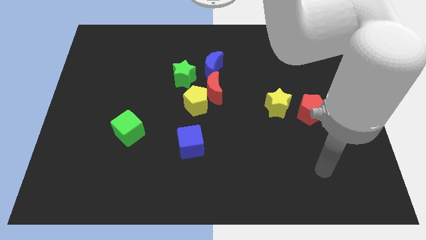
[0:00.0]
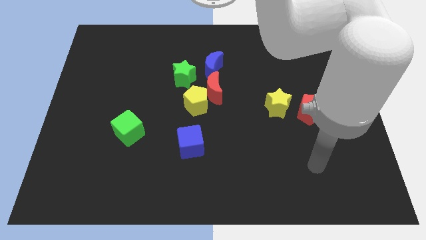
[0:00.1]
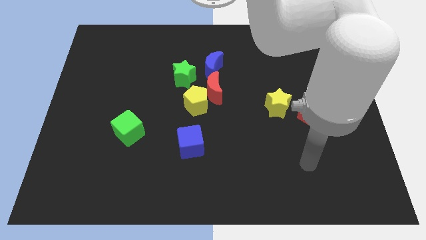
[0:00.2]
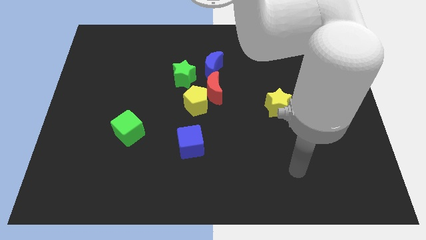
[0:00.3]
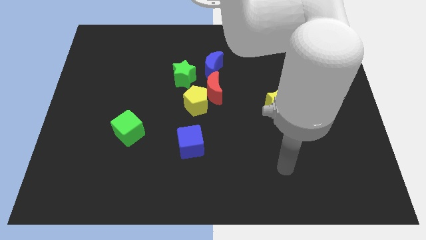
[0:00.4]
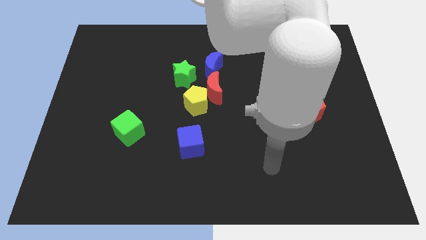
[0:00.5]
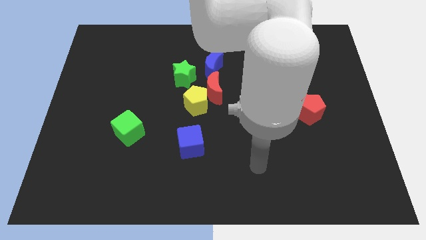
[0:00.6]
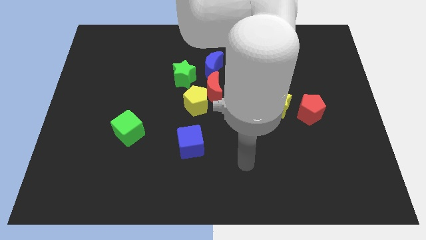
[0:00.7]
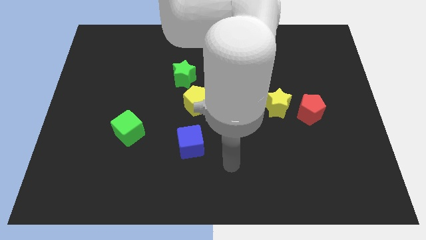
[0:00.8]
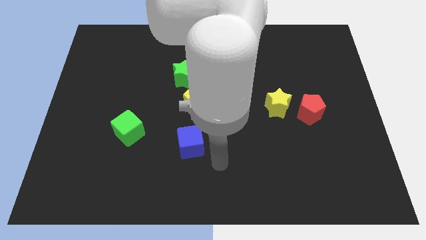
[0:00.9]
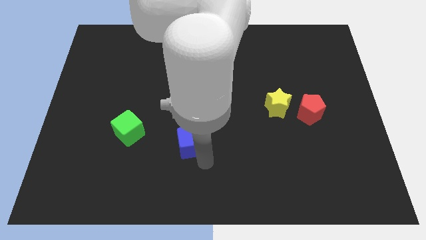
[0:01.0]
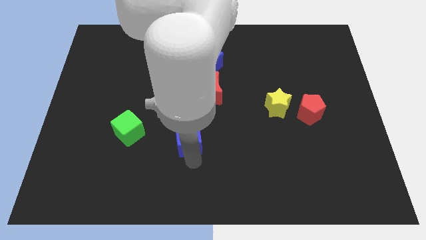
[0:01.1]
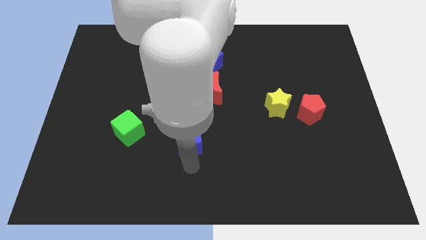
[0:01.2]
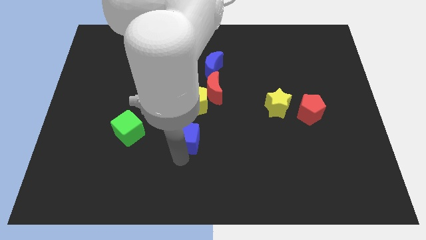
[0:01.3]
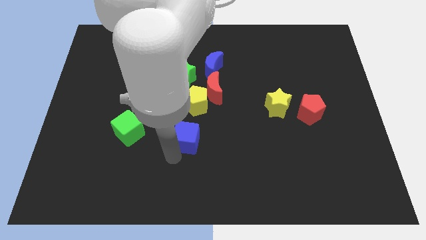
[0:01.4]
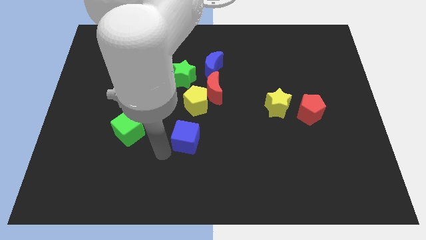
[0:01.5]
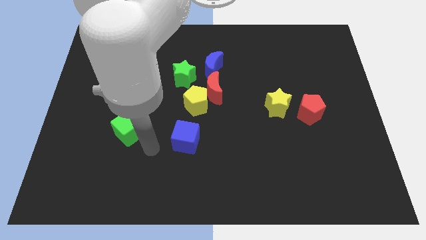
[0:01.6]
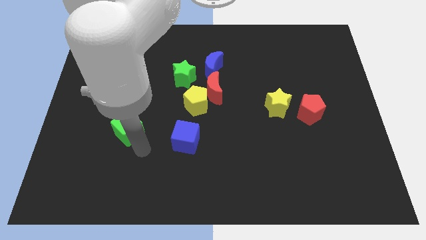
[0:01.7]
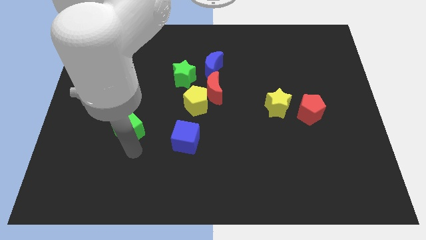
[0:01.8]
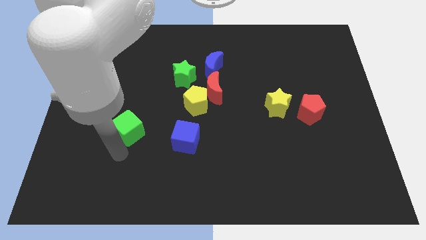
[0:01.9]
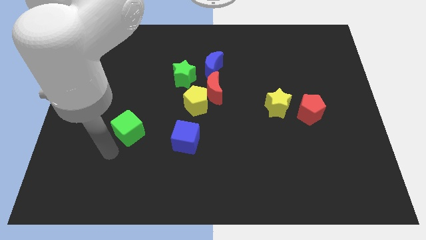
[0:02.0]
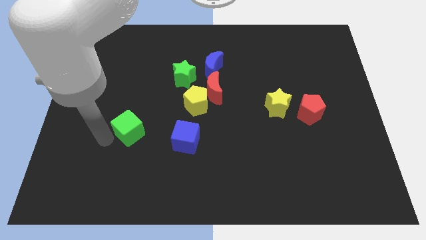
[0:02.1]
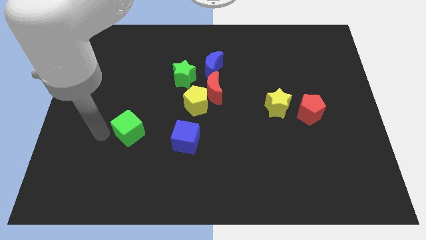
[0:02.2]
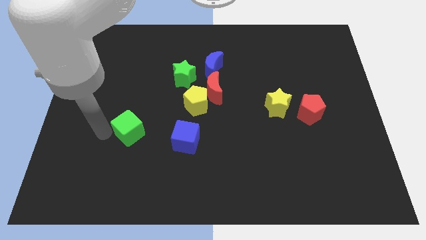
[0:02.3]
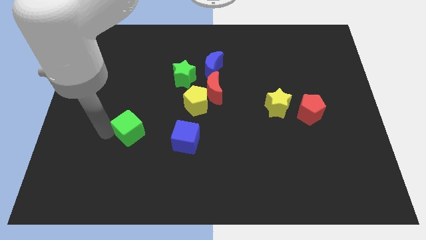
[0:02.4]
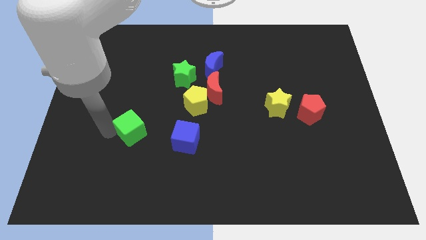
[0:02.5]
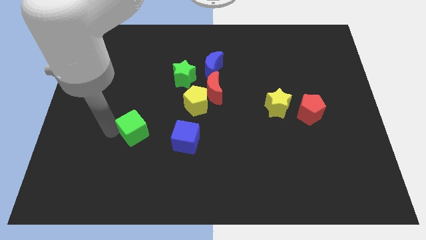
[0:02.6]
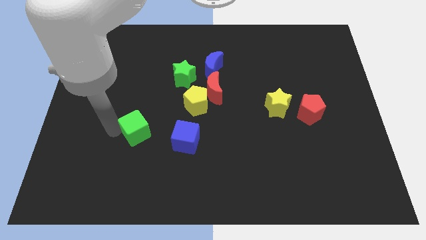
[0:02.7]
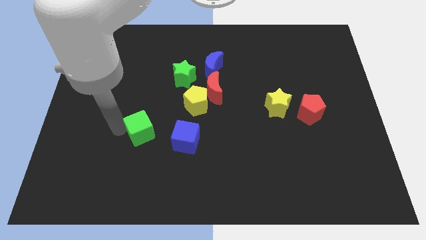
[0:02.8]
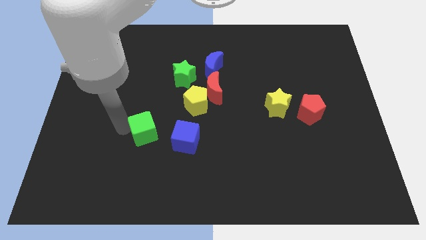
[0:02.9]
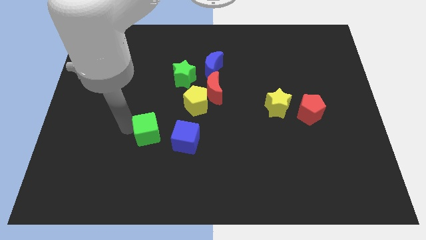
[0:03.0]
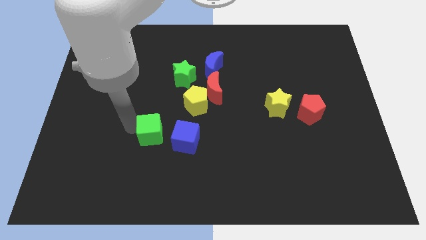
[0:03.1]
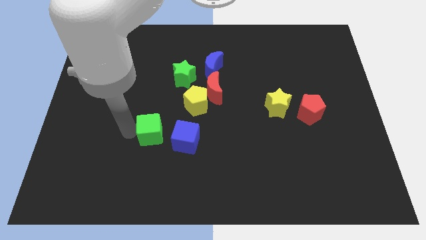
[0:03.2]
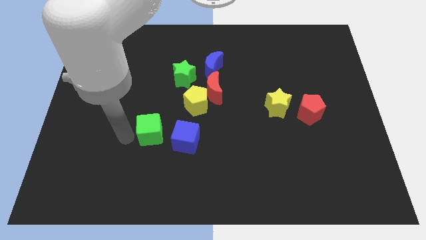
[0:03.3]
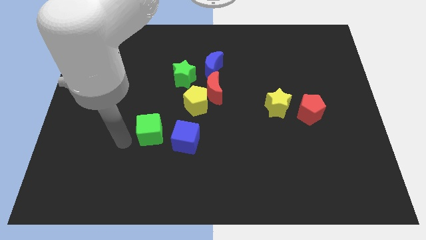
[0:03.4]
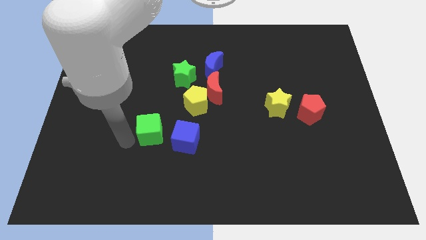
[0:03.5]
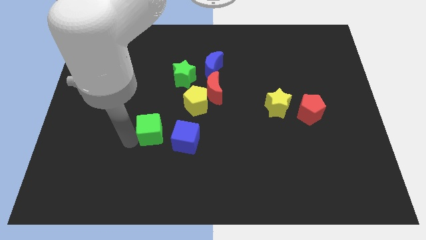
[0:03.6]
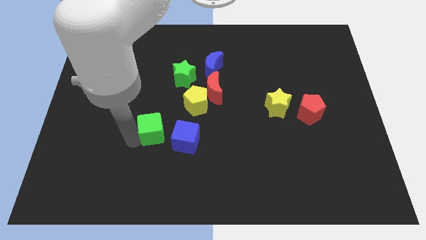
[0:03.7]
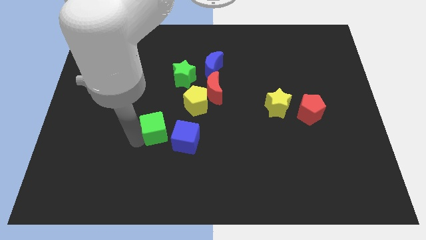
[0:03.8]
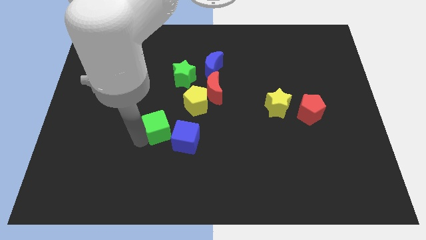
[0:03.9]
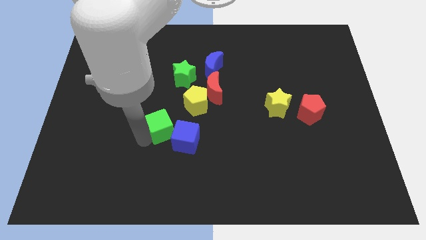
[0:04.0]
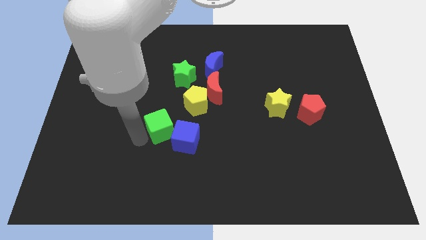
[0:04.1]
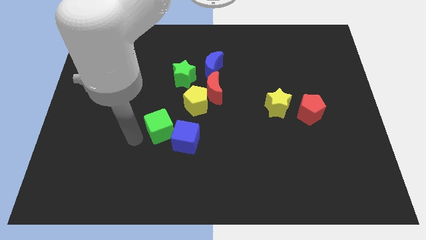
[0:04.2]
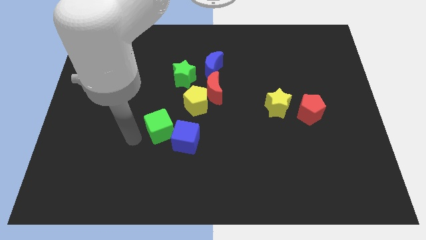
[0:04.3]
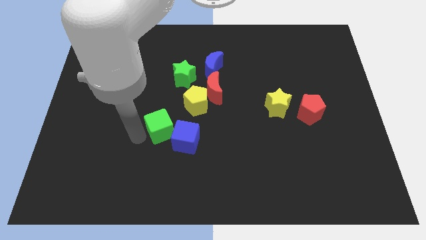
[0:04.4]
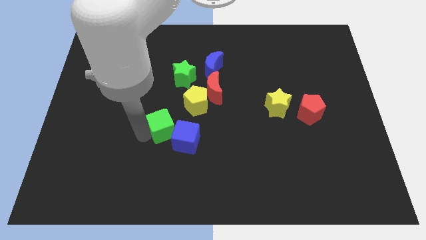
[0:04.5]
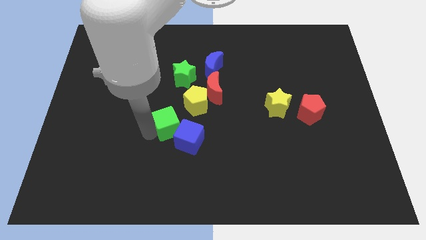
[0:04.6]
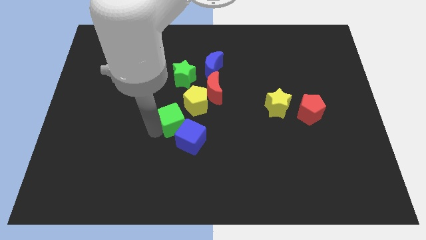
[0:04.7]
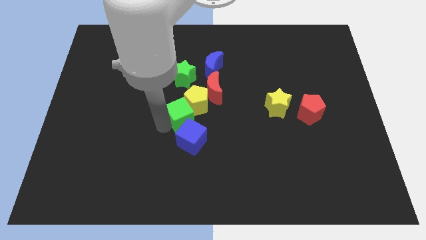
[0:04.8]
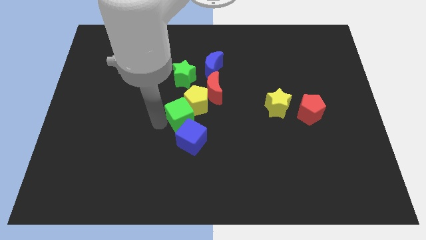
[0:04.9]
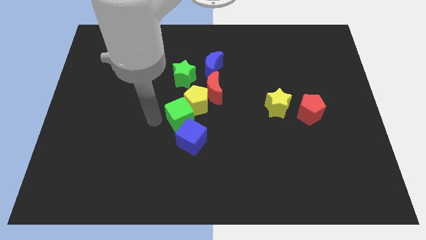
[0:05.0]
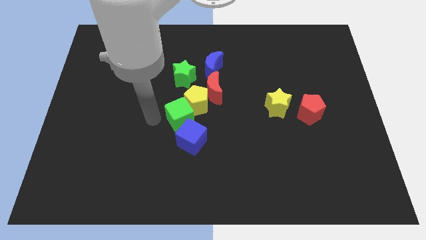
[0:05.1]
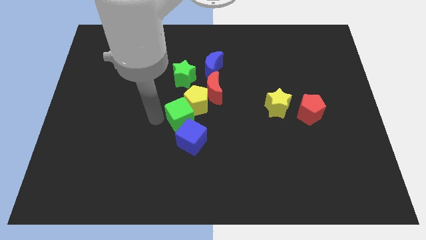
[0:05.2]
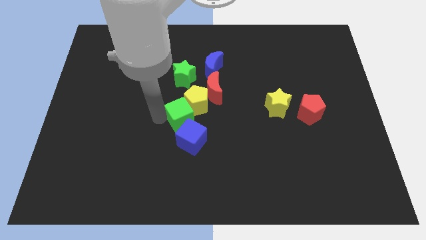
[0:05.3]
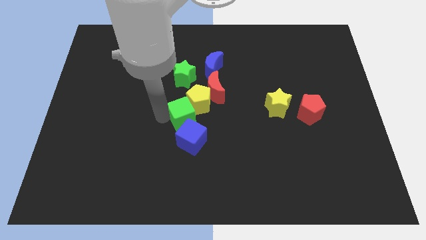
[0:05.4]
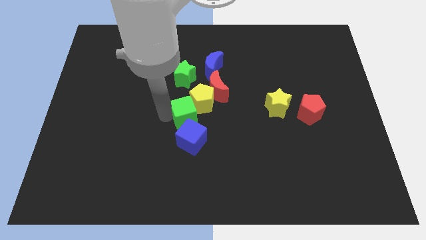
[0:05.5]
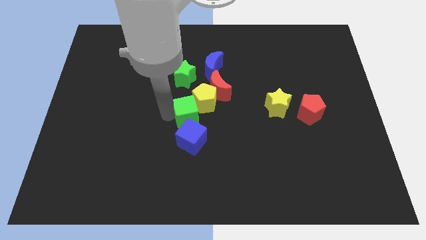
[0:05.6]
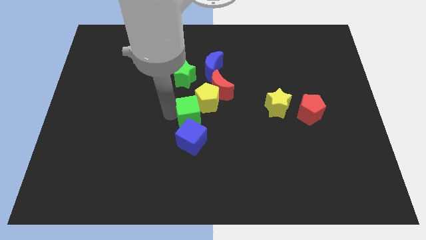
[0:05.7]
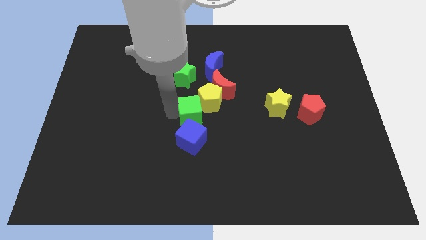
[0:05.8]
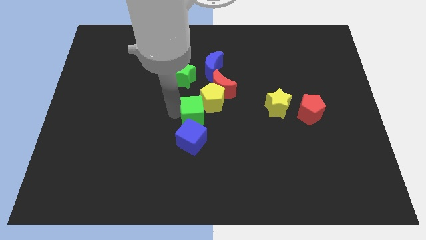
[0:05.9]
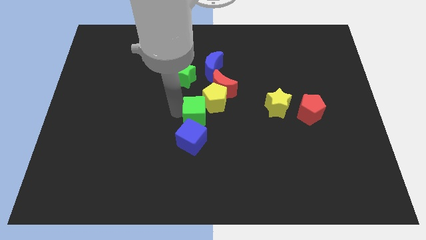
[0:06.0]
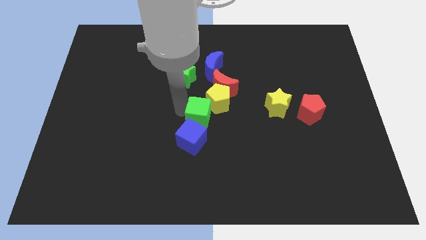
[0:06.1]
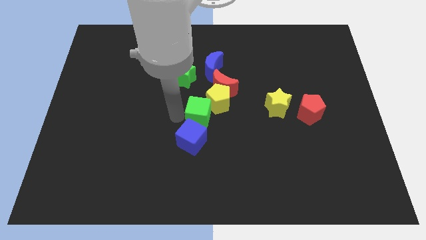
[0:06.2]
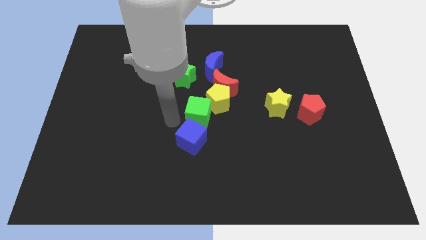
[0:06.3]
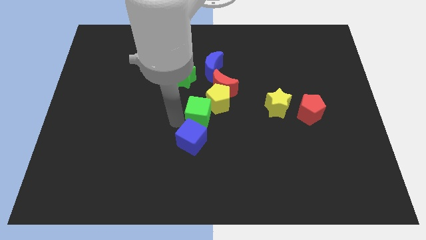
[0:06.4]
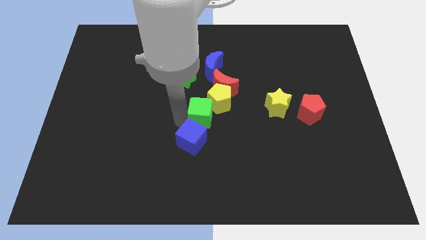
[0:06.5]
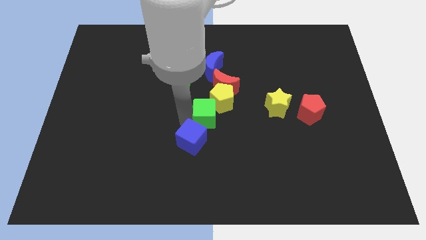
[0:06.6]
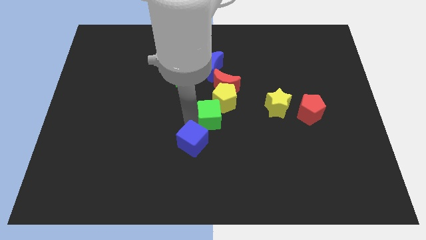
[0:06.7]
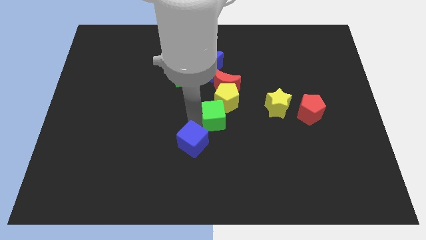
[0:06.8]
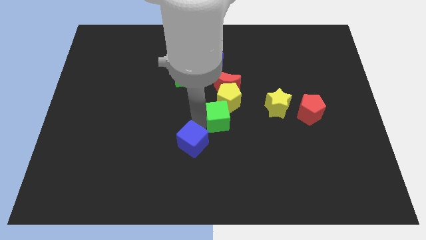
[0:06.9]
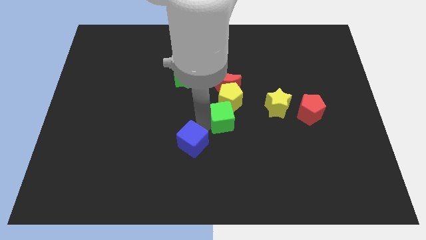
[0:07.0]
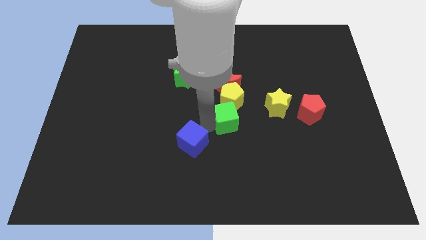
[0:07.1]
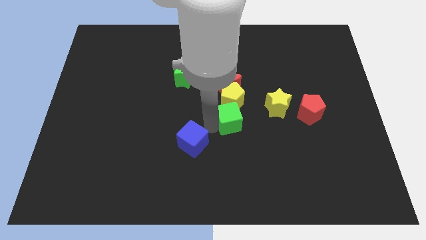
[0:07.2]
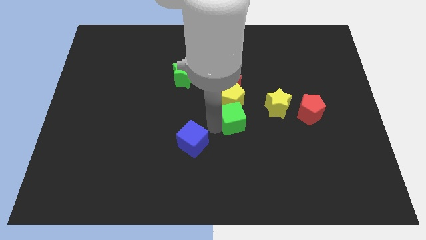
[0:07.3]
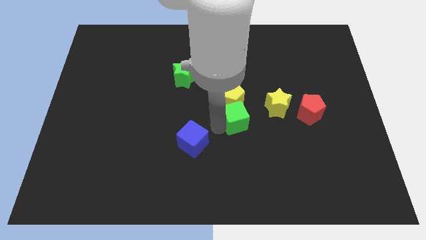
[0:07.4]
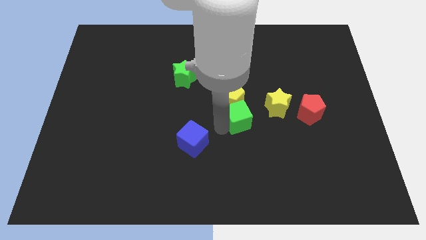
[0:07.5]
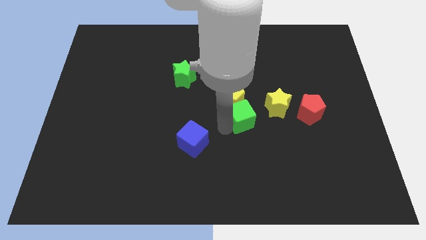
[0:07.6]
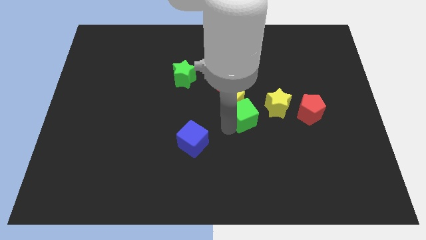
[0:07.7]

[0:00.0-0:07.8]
put the green cube to the bottom right of the red moon
